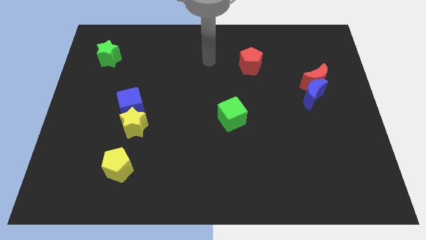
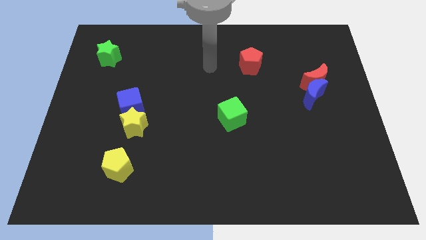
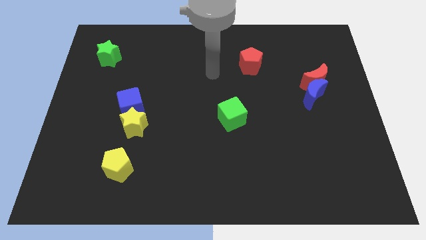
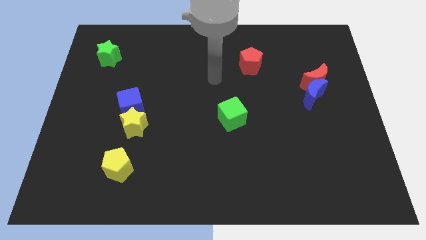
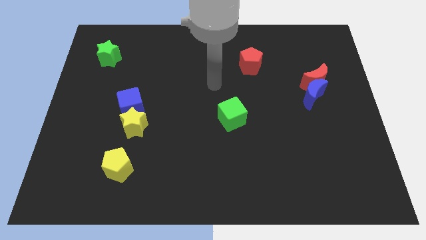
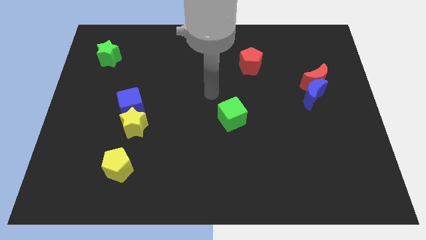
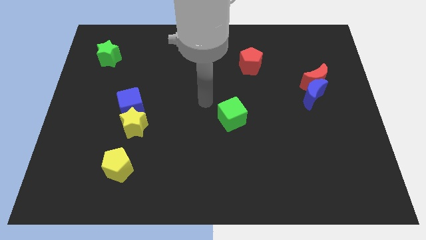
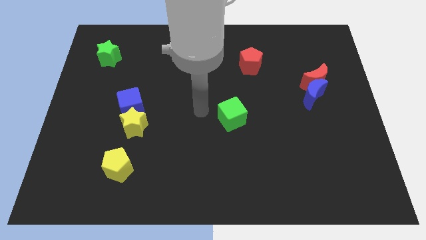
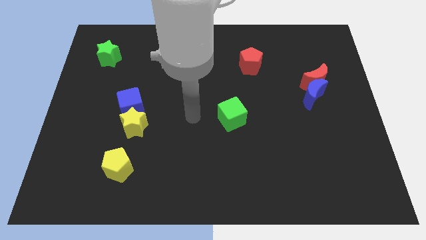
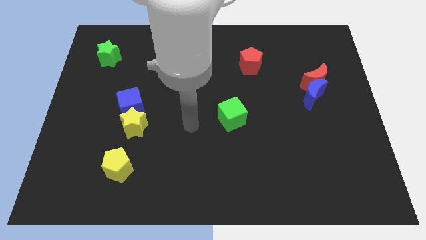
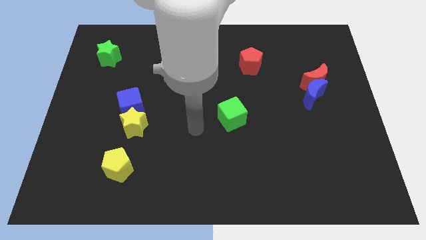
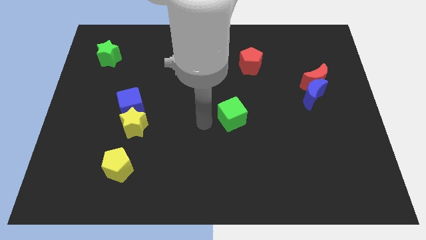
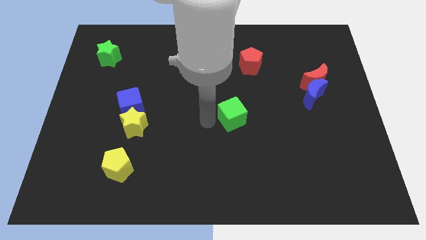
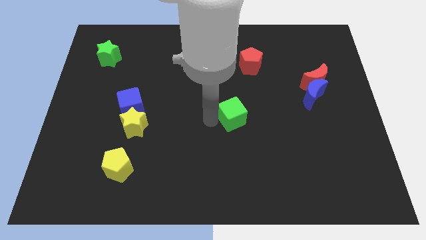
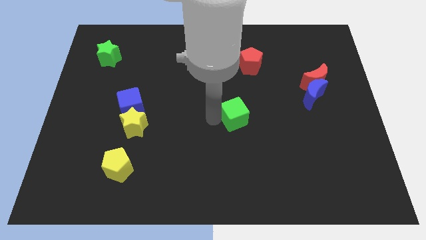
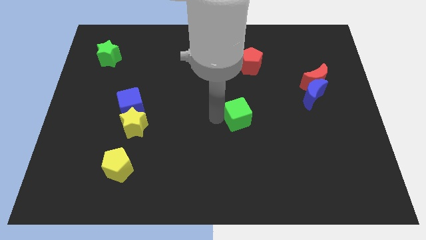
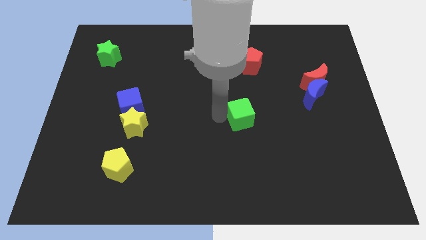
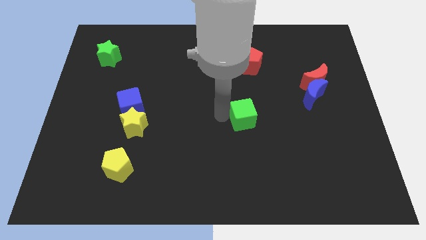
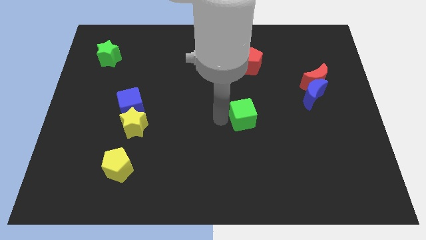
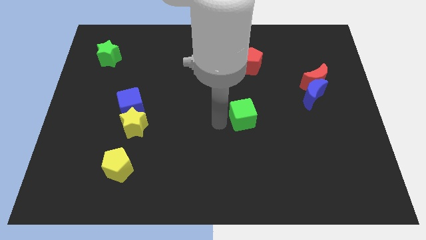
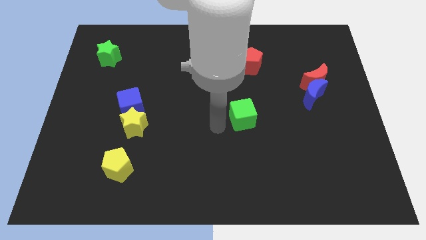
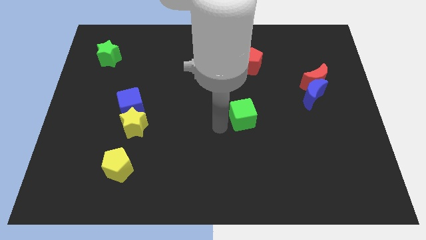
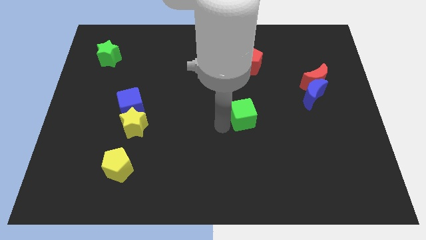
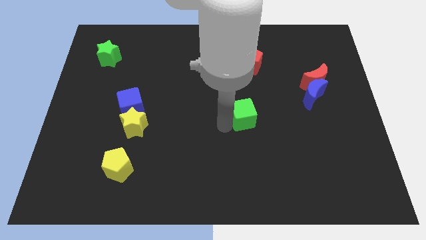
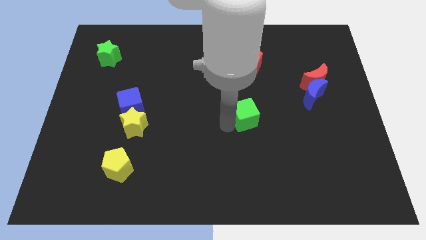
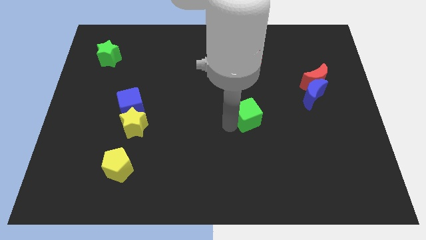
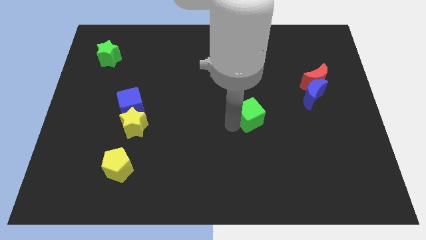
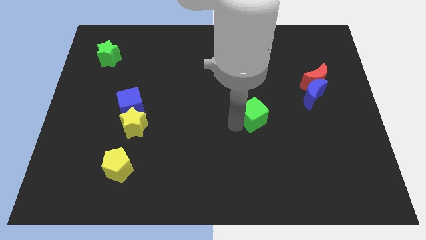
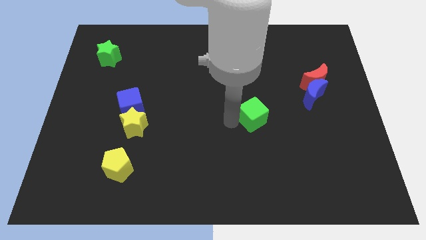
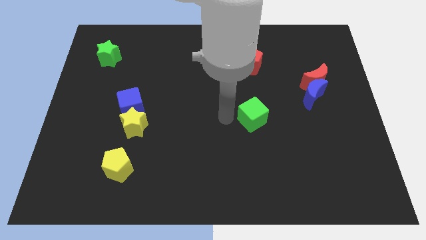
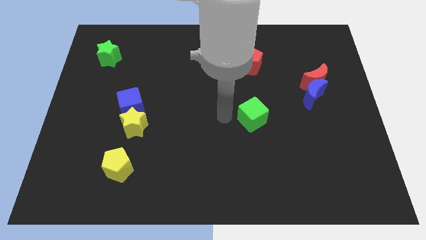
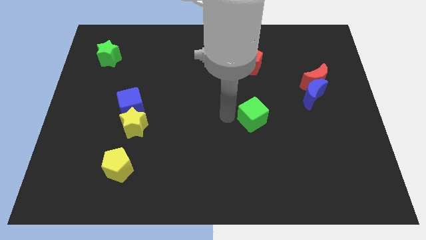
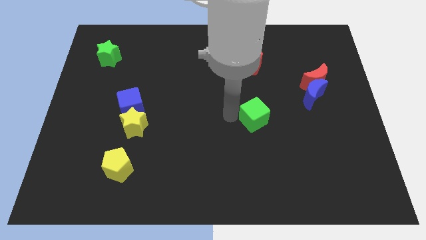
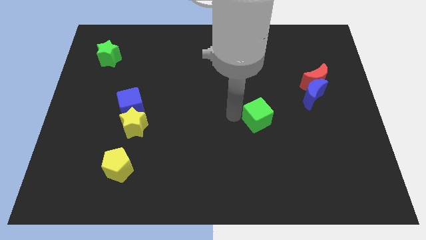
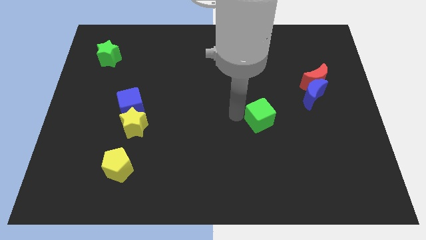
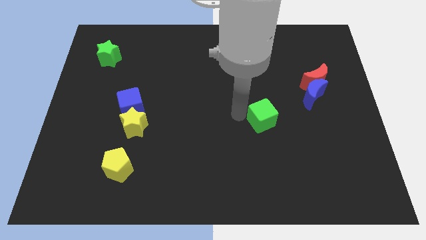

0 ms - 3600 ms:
slightly move the green cube right

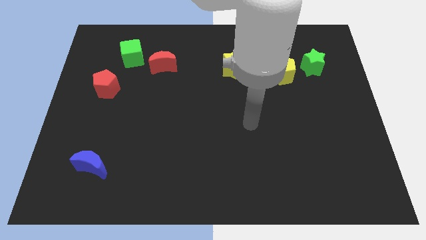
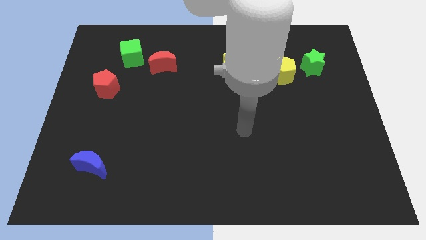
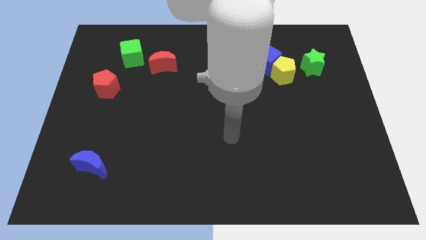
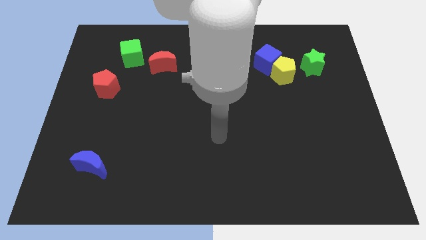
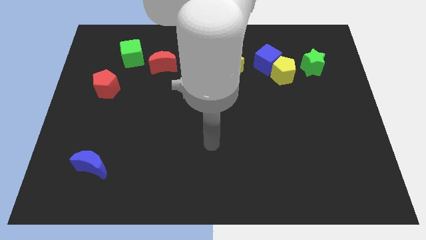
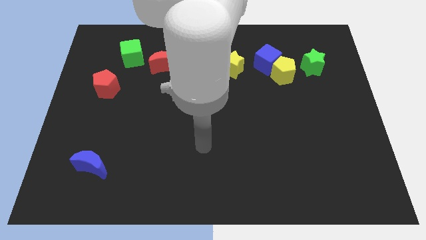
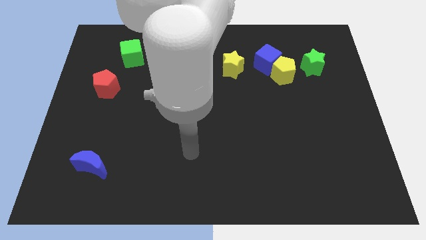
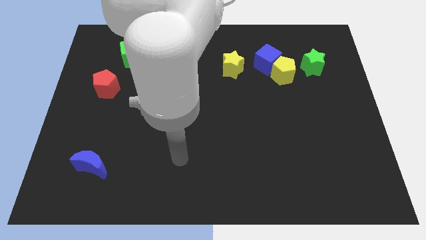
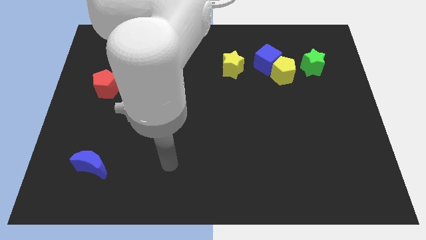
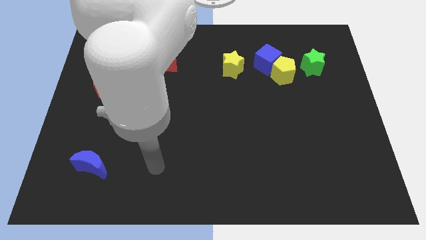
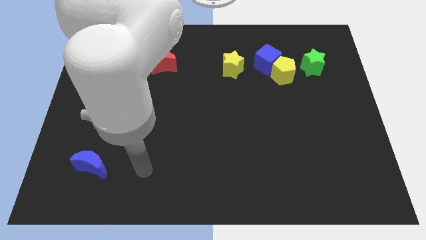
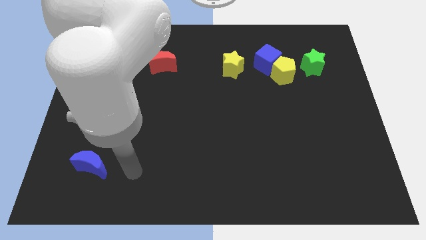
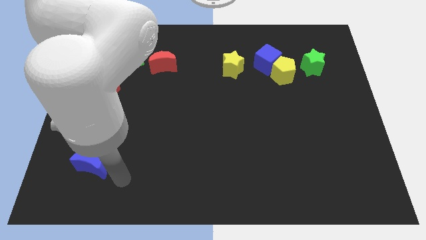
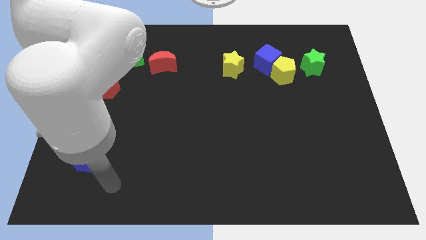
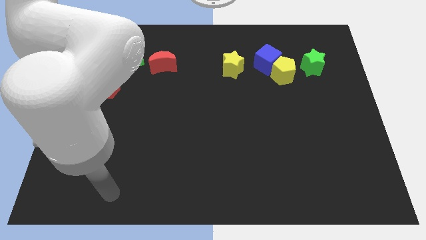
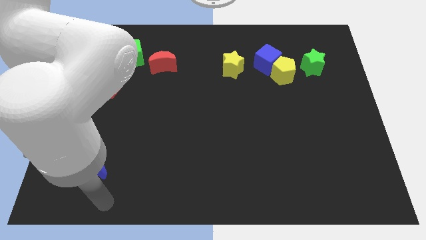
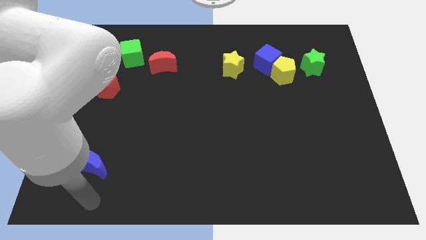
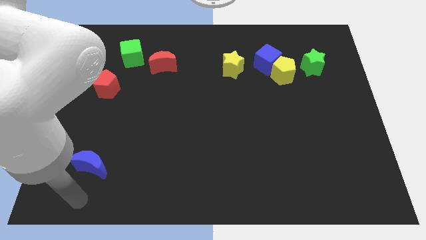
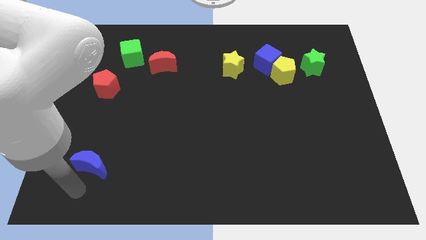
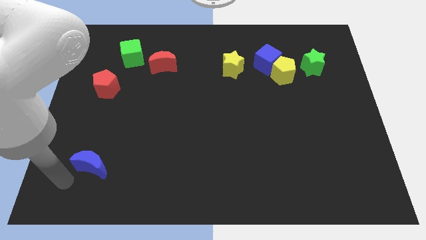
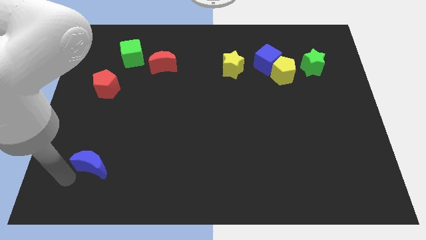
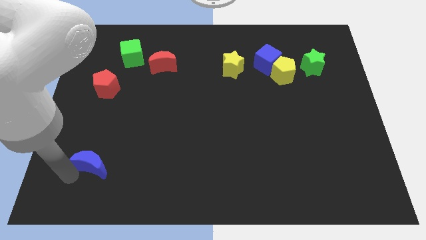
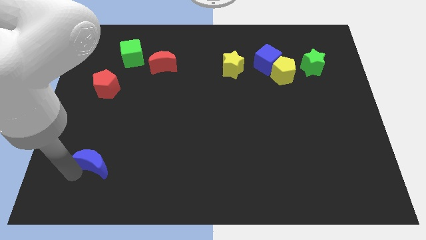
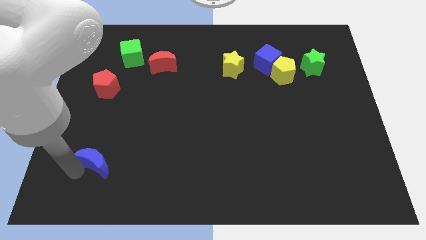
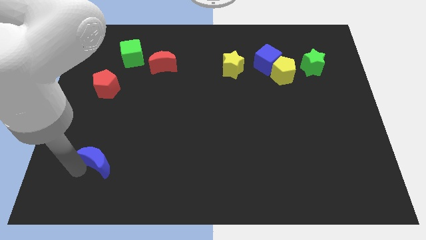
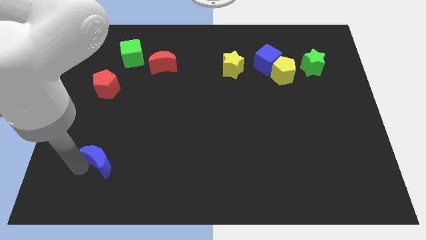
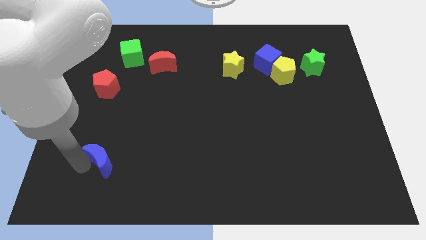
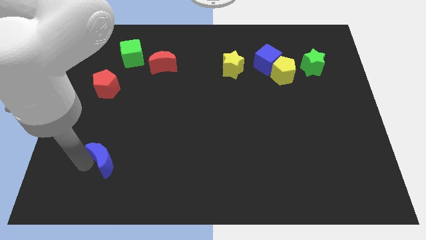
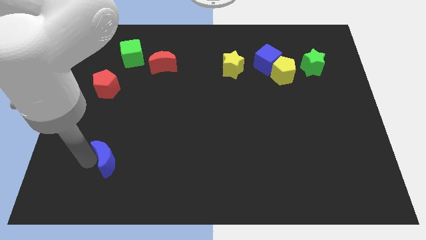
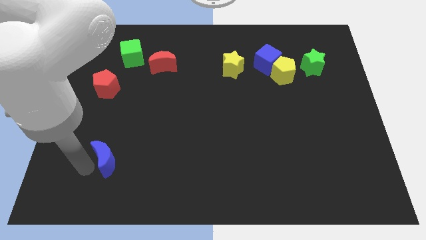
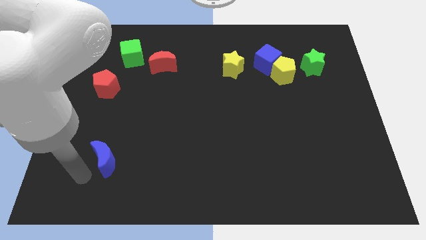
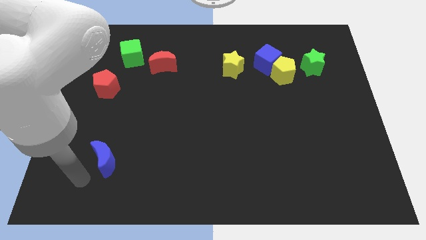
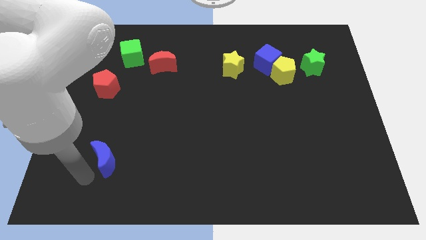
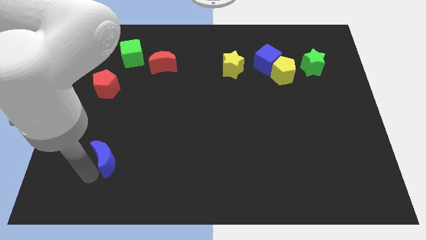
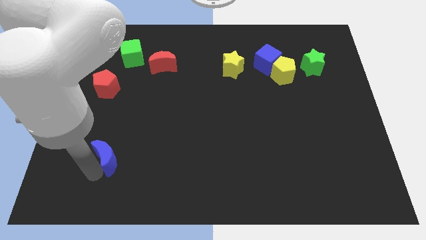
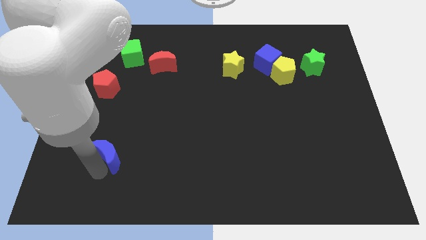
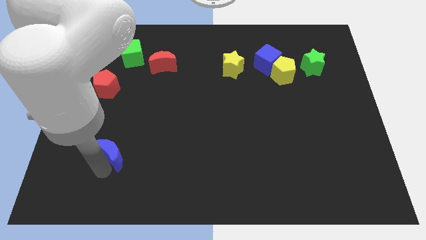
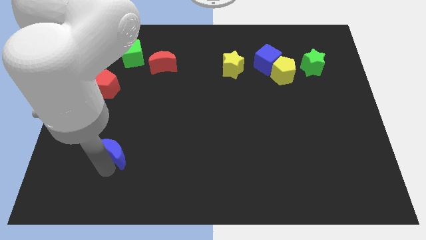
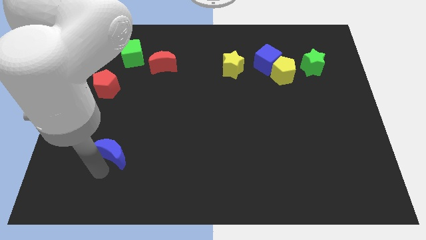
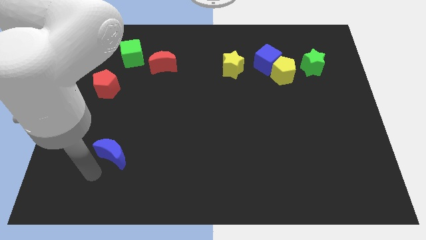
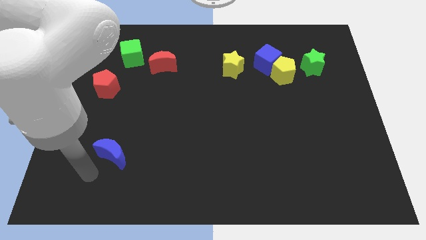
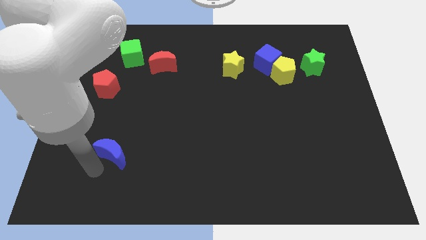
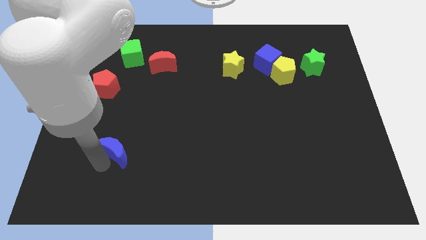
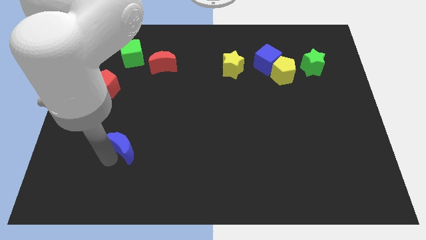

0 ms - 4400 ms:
push the blue moon a little diagonally up and right
